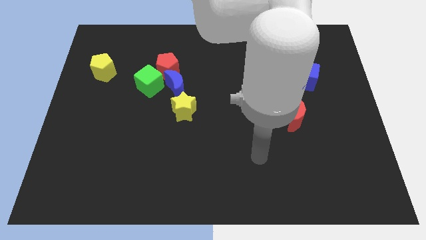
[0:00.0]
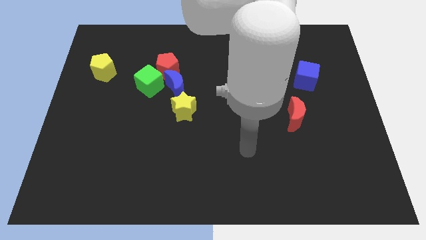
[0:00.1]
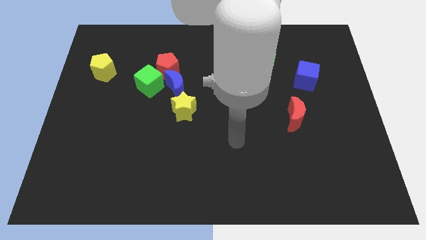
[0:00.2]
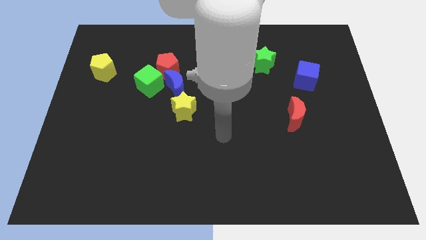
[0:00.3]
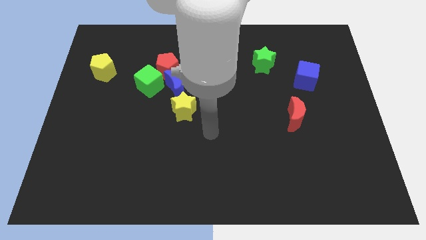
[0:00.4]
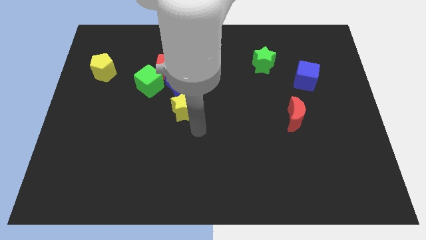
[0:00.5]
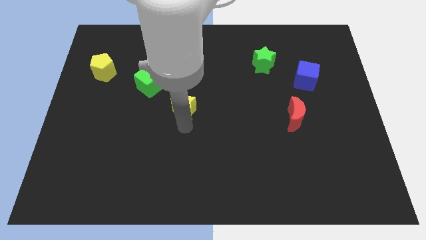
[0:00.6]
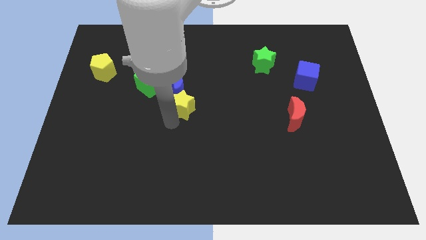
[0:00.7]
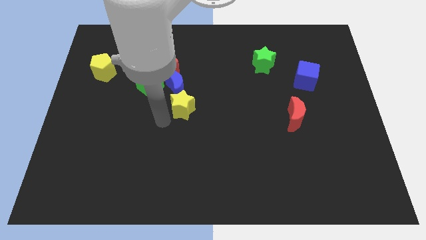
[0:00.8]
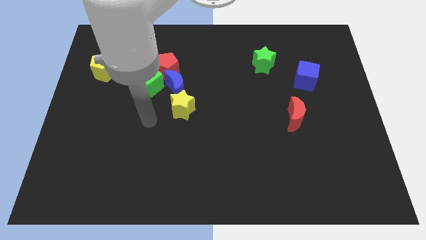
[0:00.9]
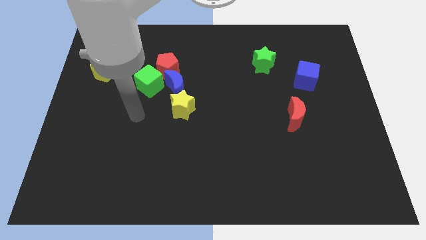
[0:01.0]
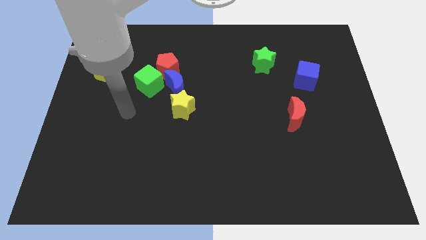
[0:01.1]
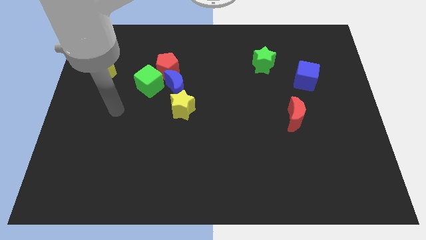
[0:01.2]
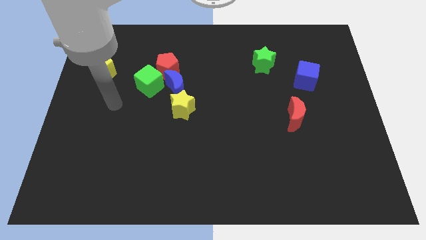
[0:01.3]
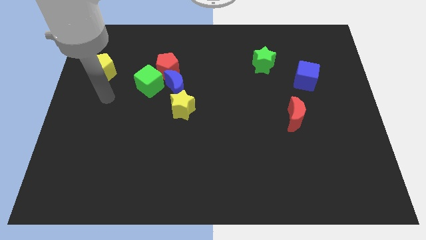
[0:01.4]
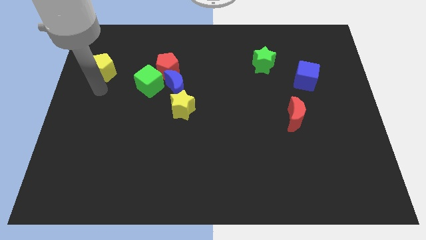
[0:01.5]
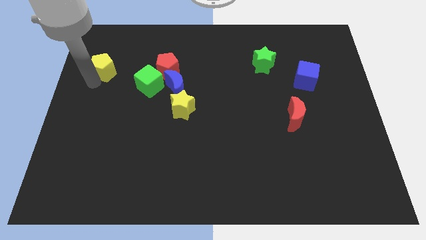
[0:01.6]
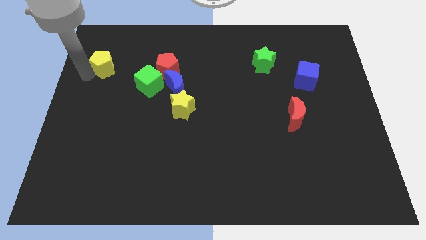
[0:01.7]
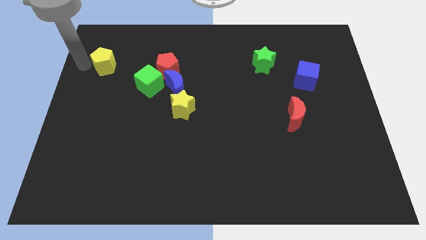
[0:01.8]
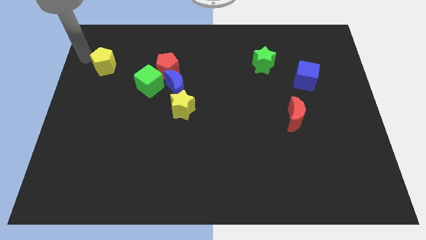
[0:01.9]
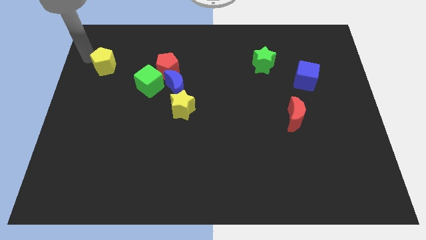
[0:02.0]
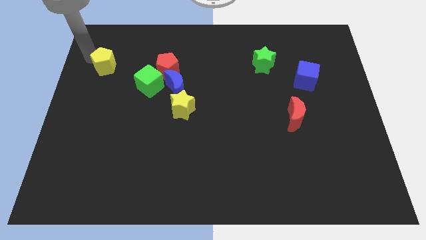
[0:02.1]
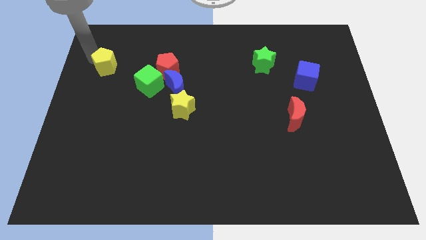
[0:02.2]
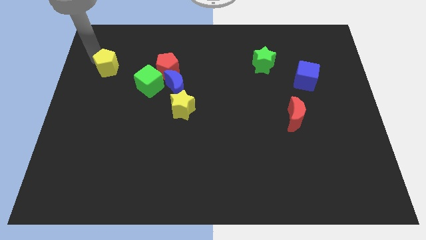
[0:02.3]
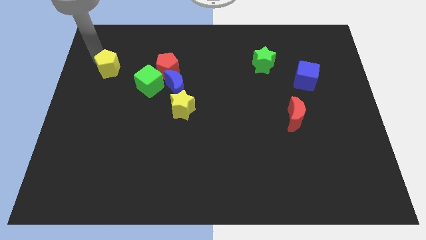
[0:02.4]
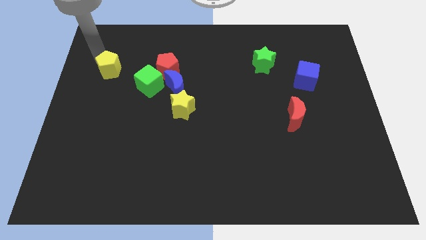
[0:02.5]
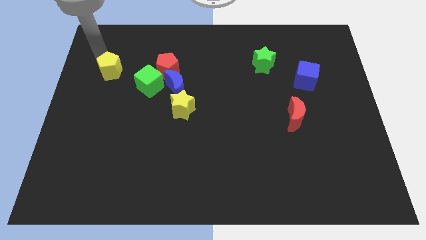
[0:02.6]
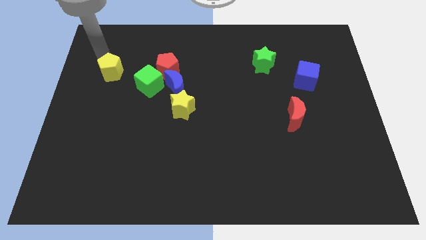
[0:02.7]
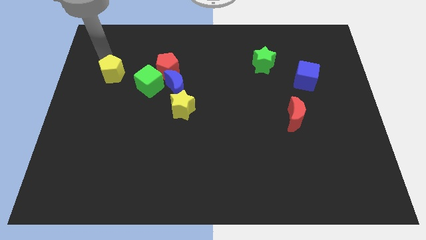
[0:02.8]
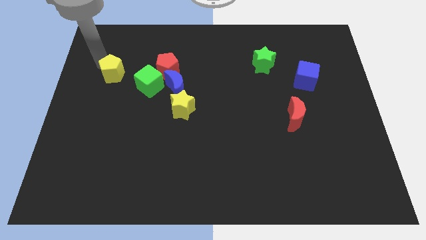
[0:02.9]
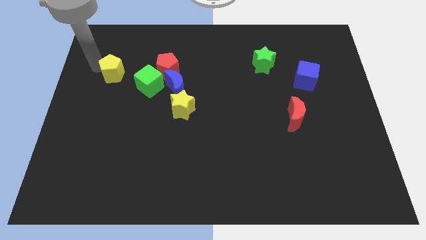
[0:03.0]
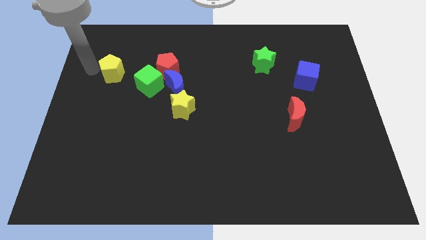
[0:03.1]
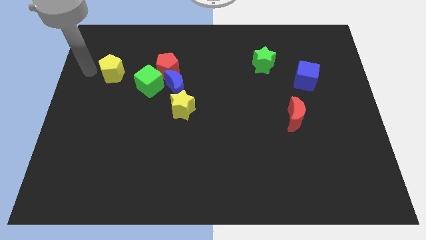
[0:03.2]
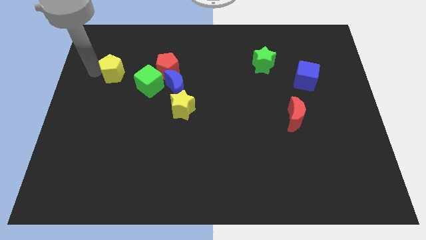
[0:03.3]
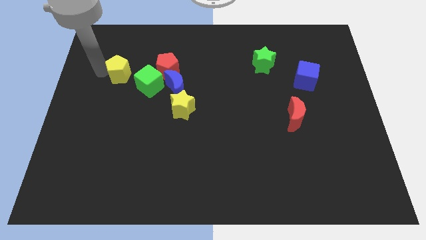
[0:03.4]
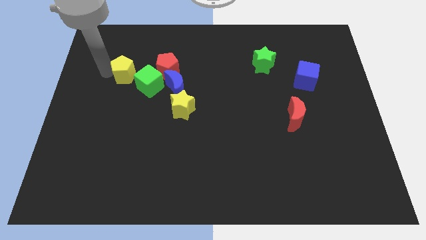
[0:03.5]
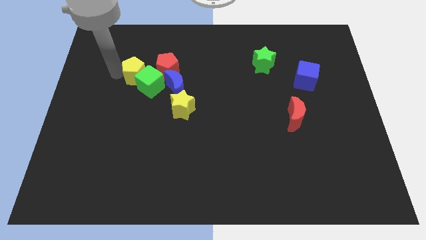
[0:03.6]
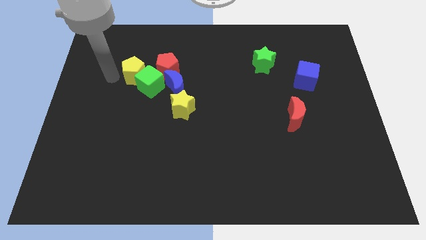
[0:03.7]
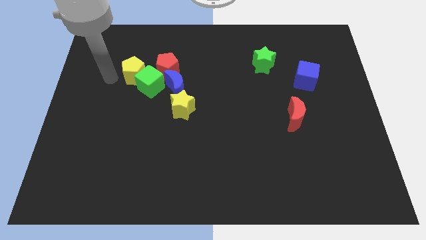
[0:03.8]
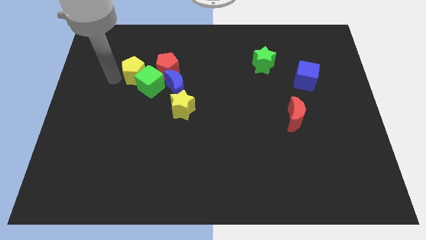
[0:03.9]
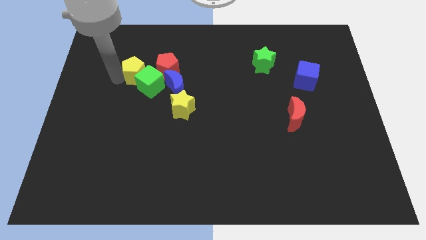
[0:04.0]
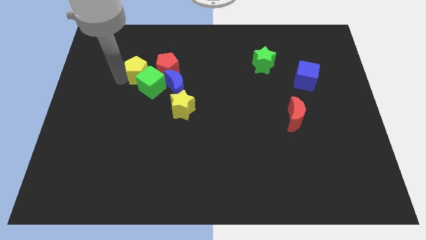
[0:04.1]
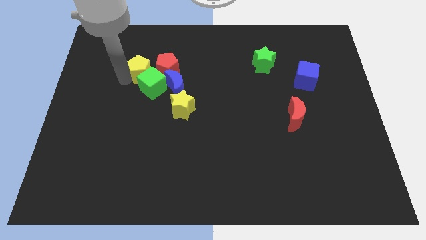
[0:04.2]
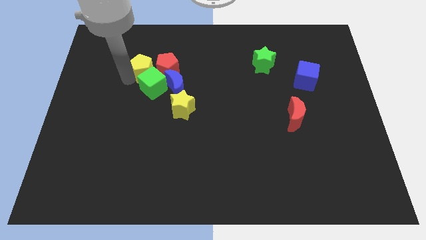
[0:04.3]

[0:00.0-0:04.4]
push the yellow pentagon towards the red pentagon

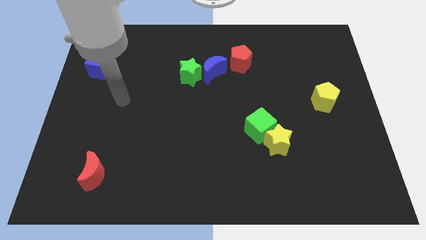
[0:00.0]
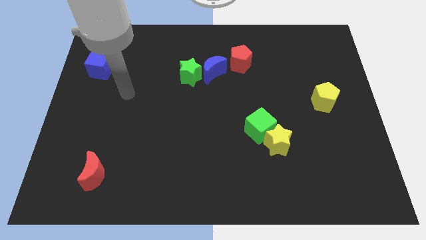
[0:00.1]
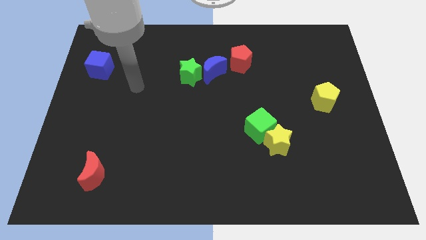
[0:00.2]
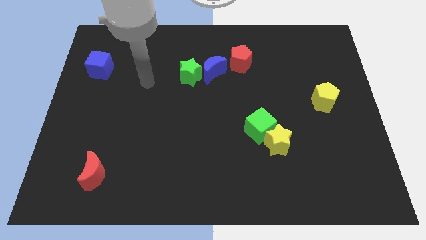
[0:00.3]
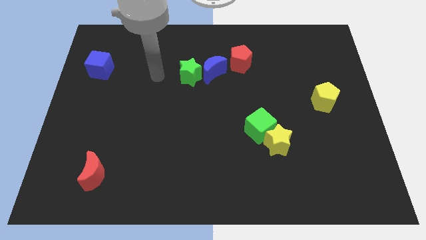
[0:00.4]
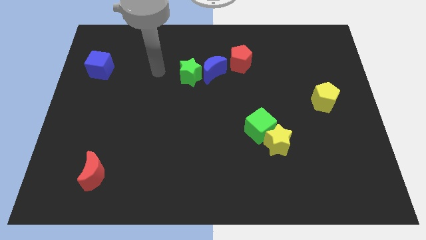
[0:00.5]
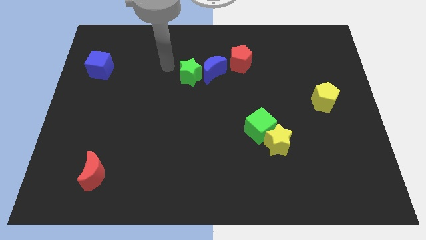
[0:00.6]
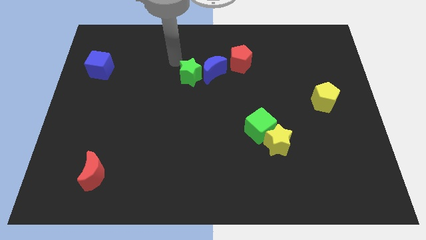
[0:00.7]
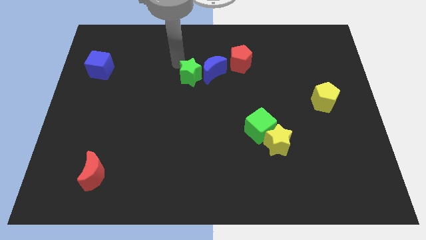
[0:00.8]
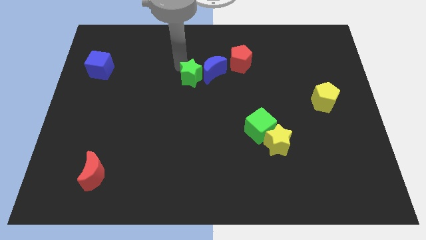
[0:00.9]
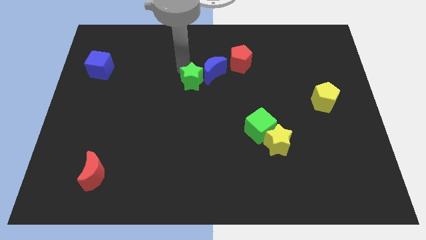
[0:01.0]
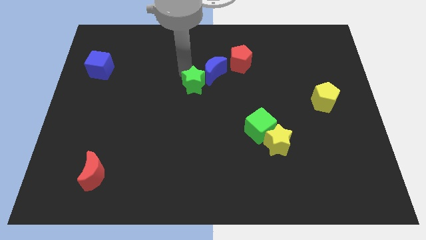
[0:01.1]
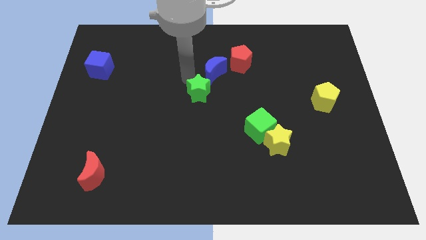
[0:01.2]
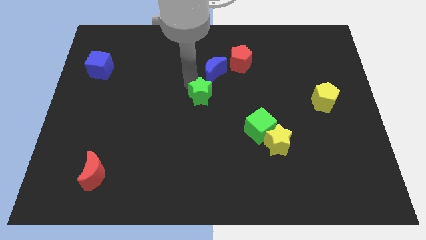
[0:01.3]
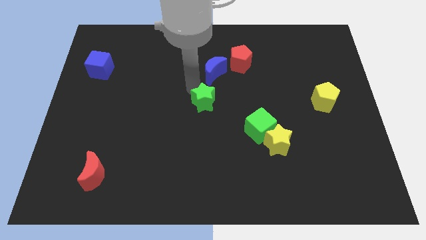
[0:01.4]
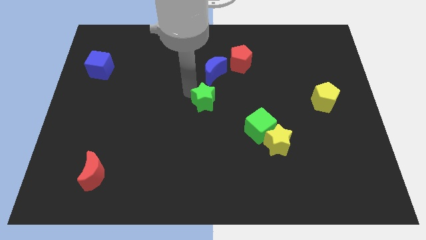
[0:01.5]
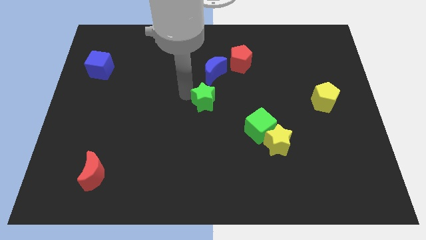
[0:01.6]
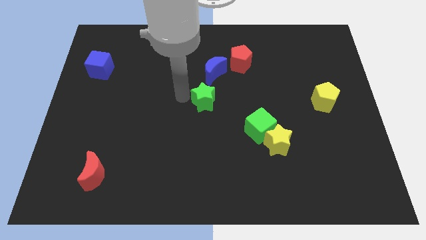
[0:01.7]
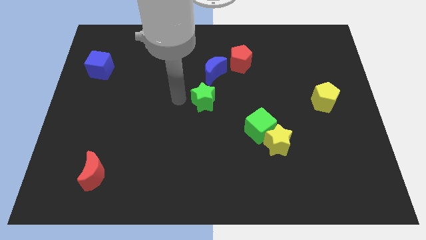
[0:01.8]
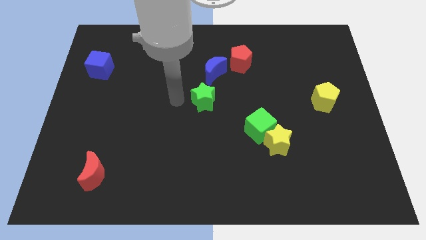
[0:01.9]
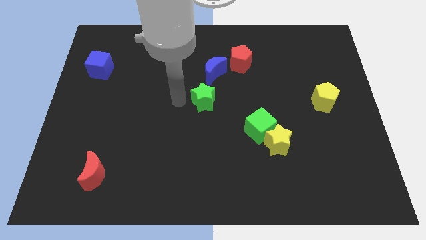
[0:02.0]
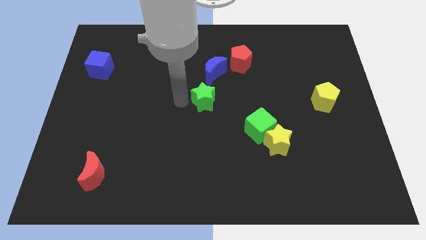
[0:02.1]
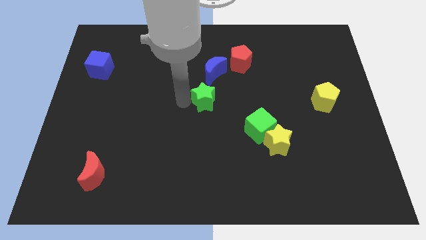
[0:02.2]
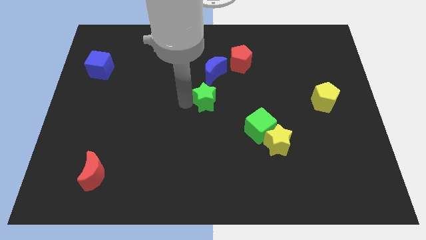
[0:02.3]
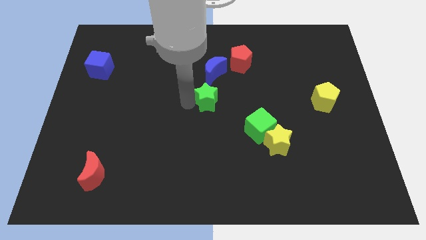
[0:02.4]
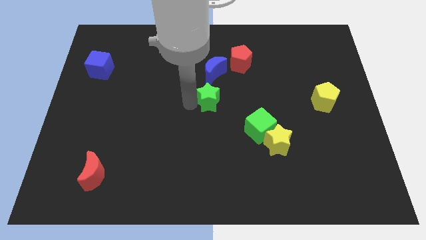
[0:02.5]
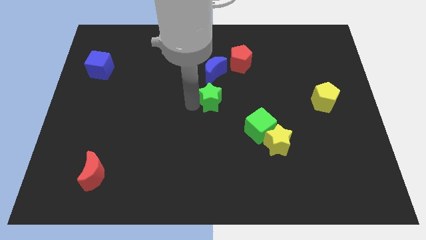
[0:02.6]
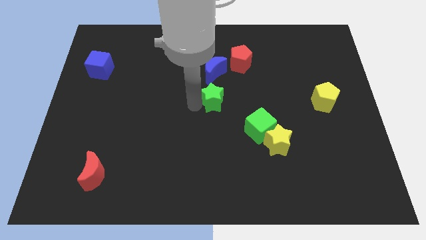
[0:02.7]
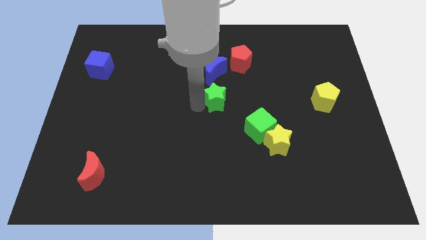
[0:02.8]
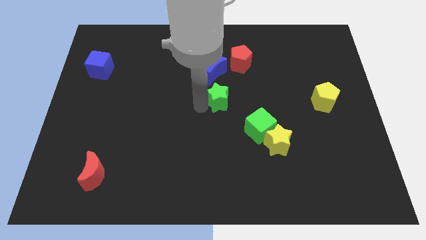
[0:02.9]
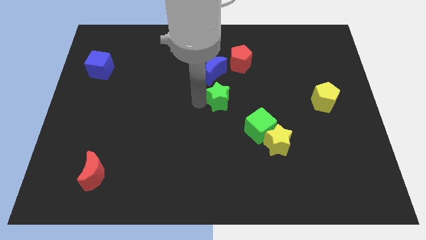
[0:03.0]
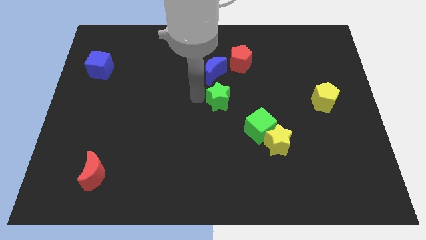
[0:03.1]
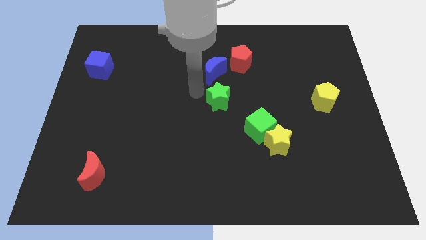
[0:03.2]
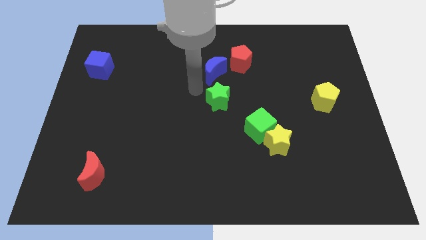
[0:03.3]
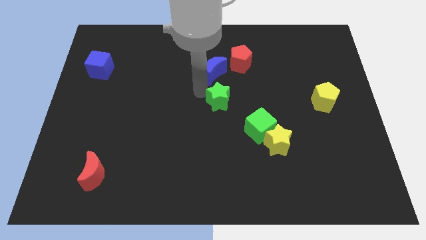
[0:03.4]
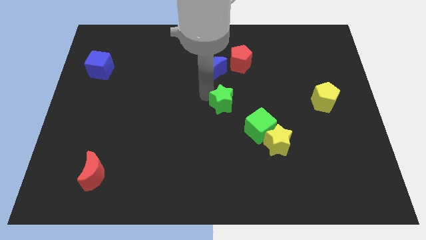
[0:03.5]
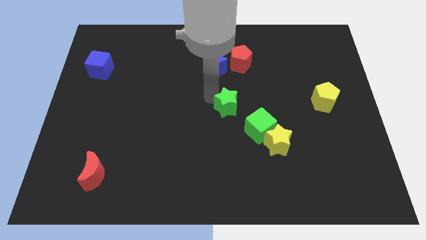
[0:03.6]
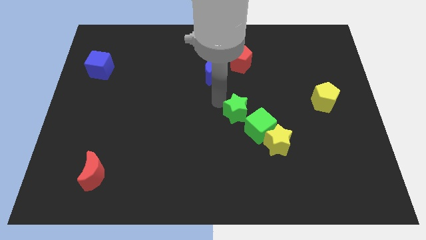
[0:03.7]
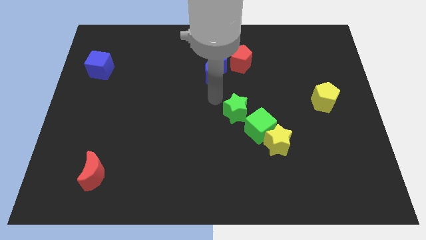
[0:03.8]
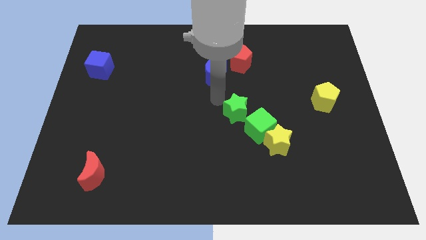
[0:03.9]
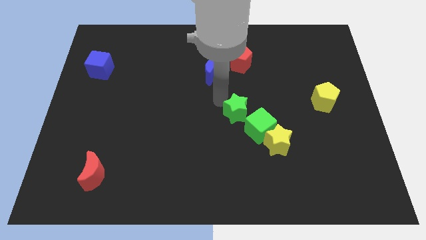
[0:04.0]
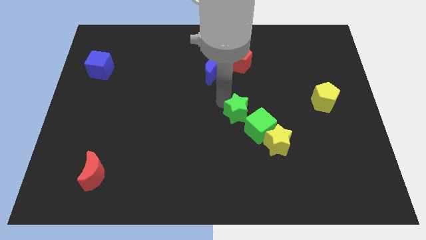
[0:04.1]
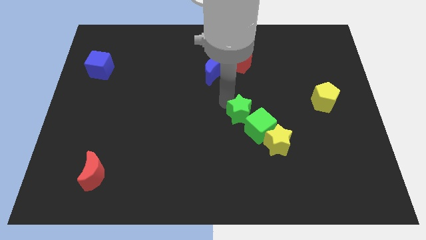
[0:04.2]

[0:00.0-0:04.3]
put the green star close to the green cube
